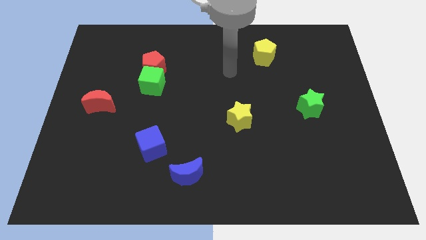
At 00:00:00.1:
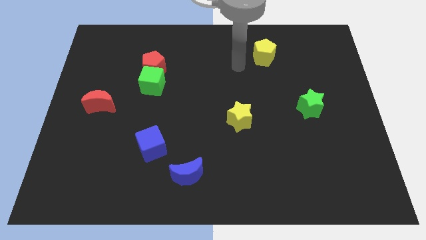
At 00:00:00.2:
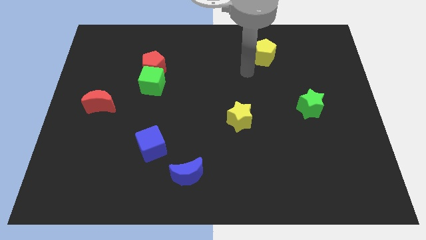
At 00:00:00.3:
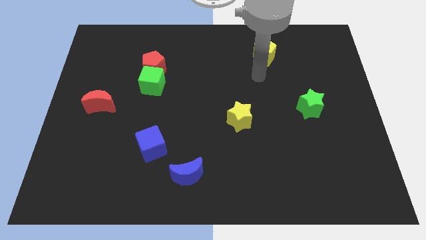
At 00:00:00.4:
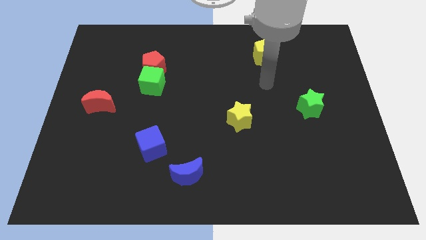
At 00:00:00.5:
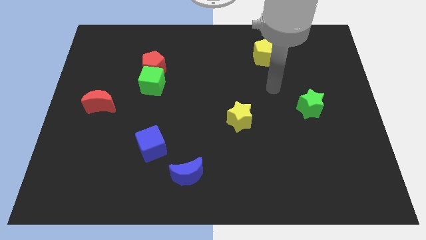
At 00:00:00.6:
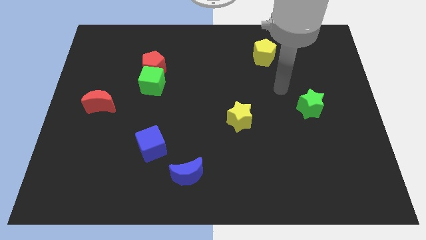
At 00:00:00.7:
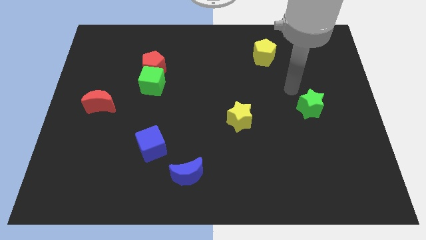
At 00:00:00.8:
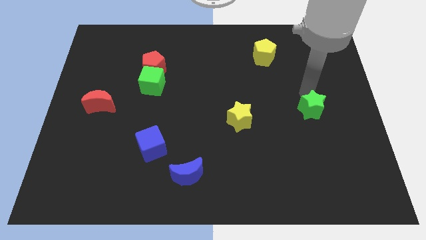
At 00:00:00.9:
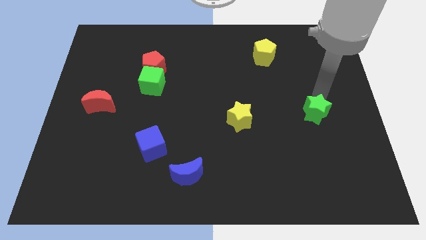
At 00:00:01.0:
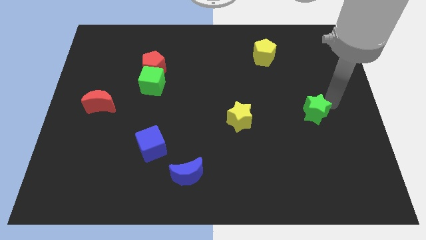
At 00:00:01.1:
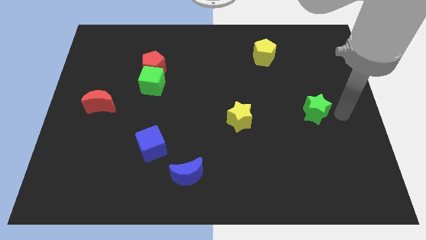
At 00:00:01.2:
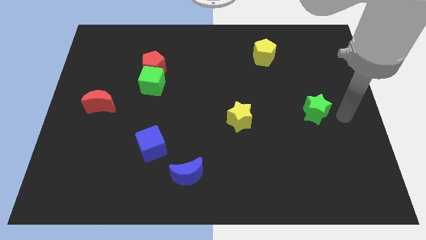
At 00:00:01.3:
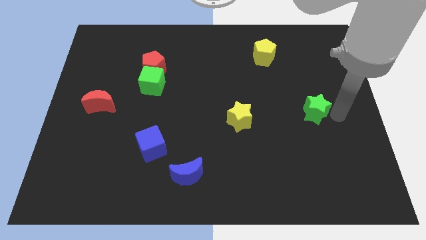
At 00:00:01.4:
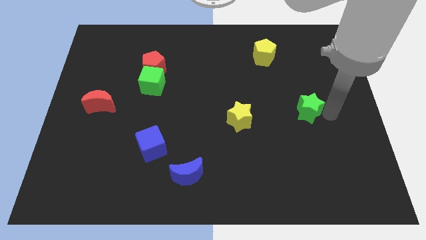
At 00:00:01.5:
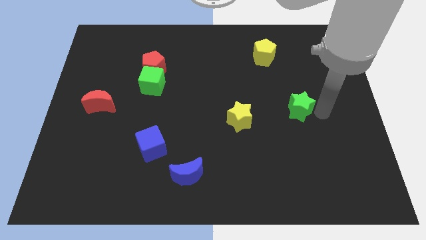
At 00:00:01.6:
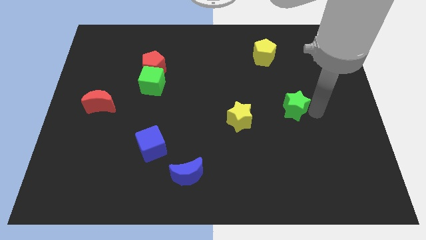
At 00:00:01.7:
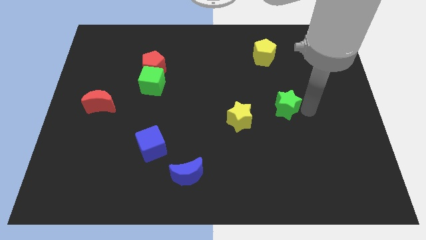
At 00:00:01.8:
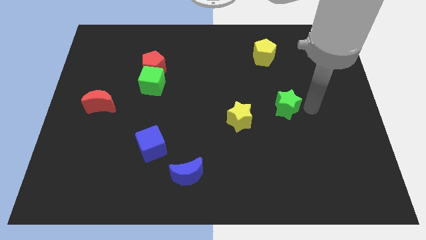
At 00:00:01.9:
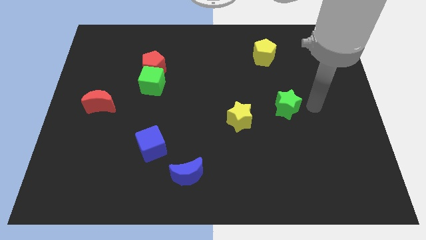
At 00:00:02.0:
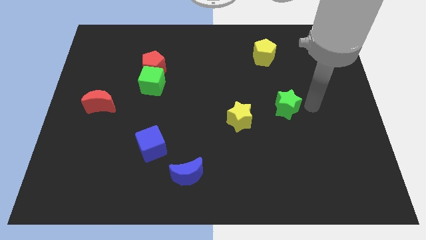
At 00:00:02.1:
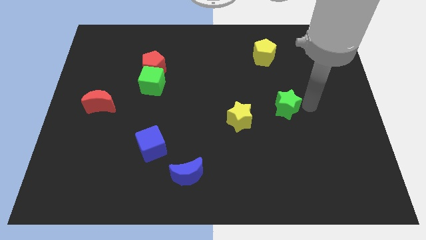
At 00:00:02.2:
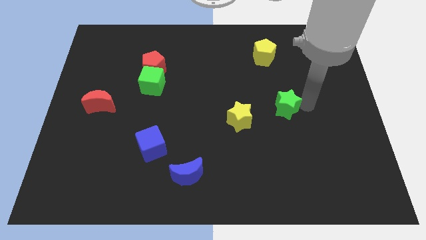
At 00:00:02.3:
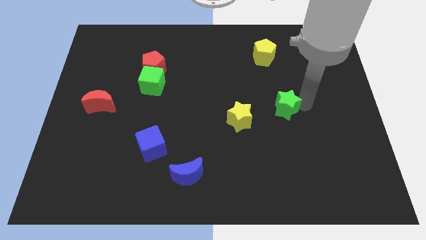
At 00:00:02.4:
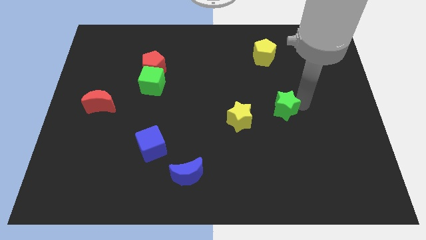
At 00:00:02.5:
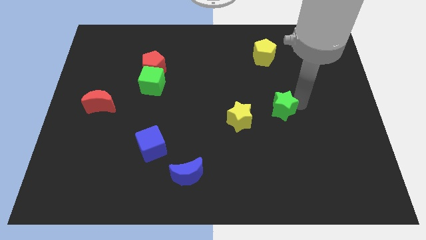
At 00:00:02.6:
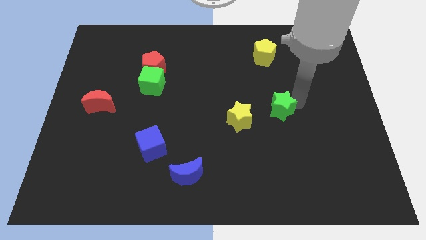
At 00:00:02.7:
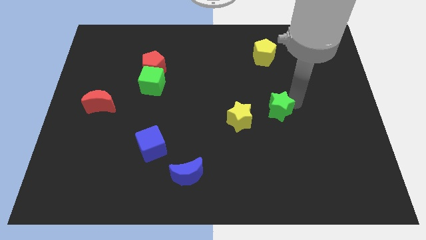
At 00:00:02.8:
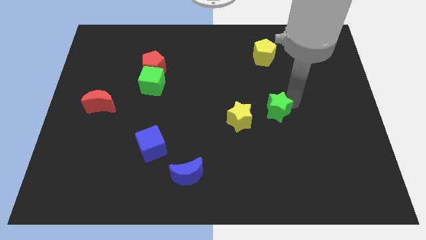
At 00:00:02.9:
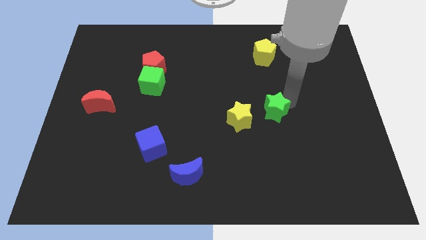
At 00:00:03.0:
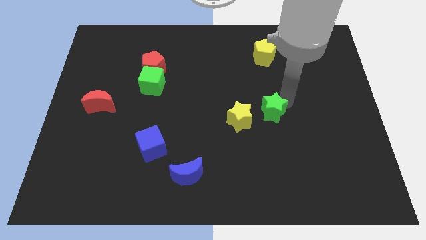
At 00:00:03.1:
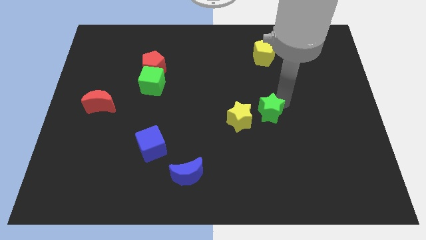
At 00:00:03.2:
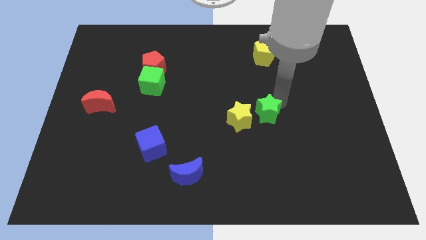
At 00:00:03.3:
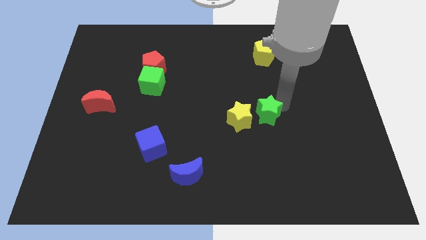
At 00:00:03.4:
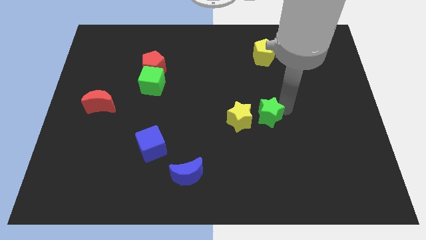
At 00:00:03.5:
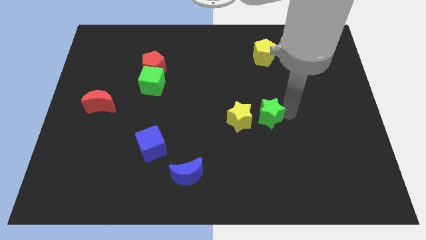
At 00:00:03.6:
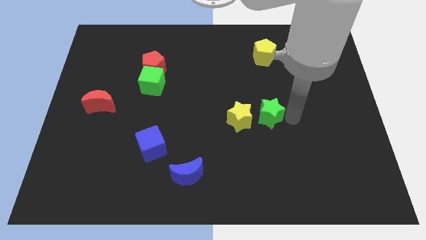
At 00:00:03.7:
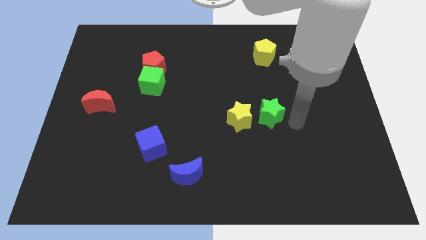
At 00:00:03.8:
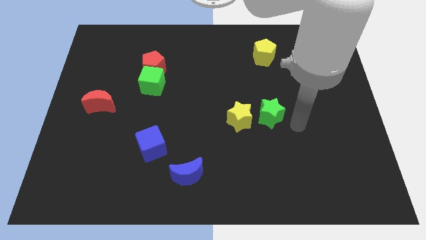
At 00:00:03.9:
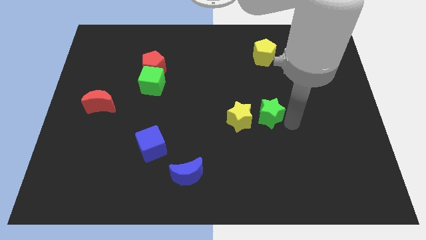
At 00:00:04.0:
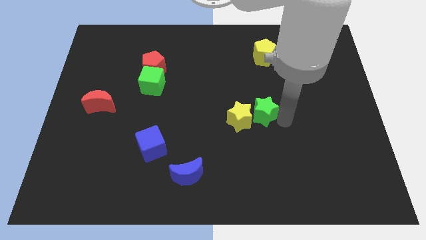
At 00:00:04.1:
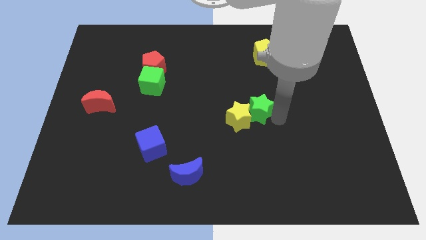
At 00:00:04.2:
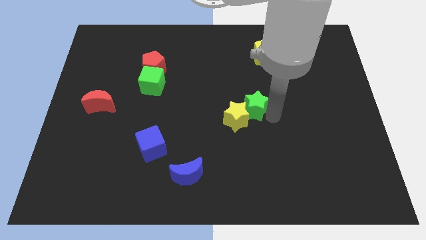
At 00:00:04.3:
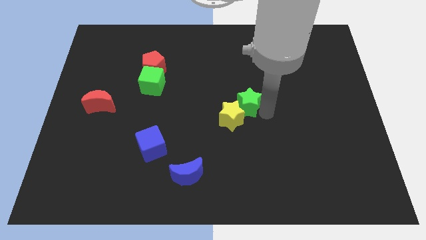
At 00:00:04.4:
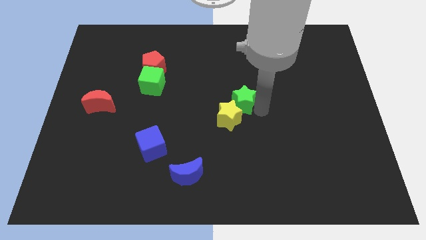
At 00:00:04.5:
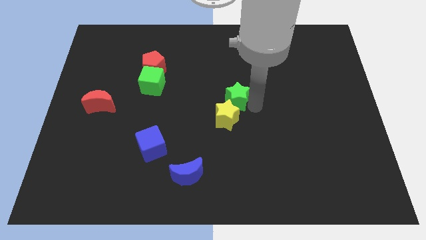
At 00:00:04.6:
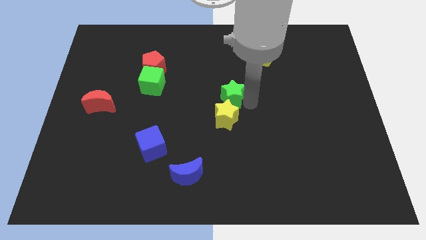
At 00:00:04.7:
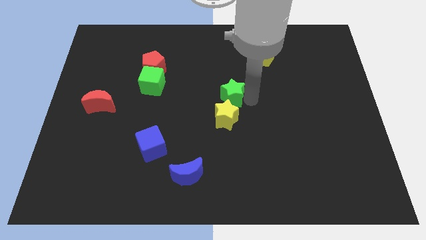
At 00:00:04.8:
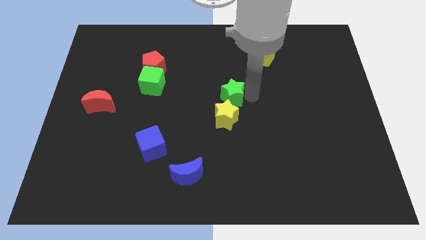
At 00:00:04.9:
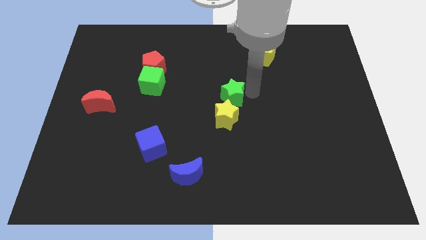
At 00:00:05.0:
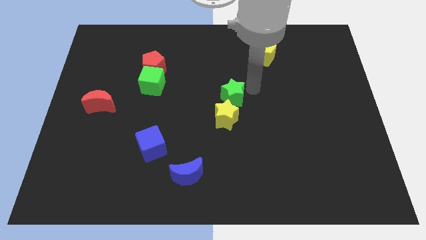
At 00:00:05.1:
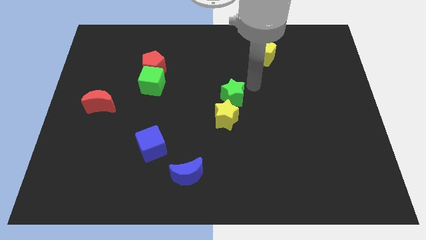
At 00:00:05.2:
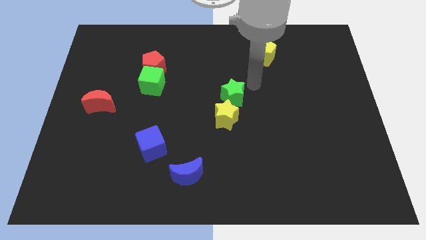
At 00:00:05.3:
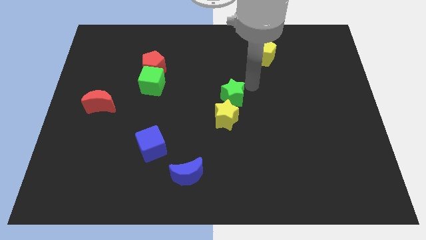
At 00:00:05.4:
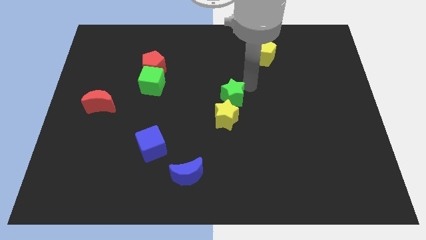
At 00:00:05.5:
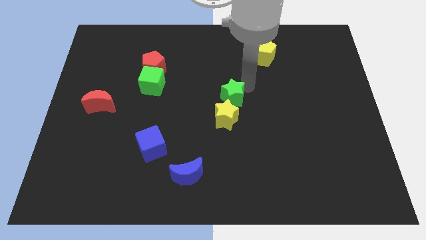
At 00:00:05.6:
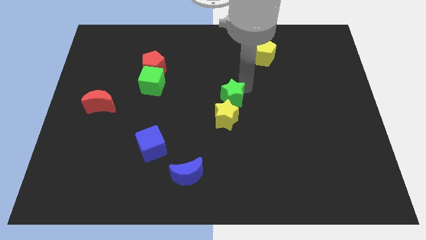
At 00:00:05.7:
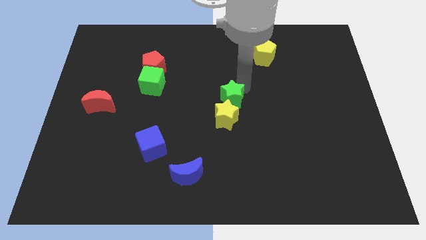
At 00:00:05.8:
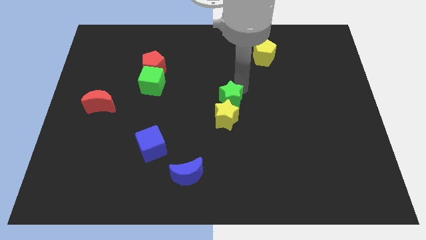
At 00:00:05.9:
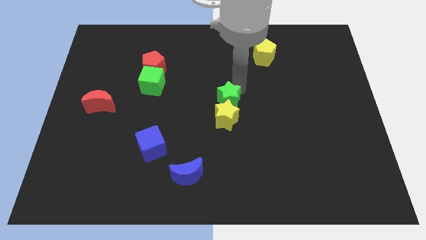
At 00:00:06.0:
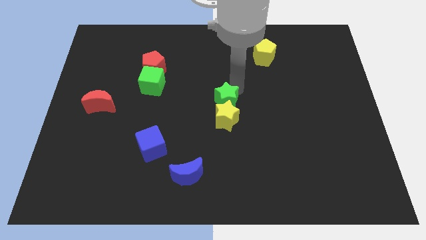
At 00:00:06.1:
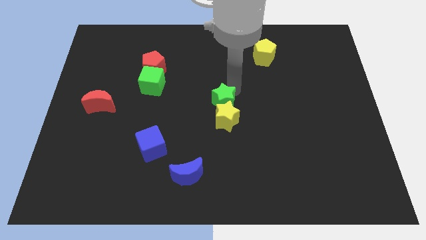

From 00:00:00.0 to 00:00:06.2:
slide the green star to the left

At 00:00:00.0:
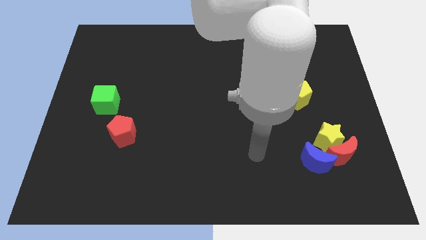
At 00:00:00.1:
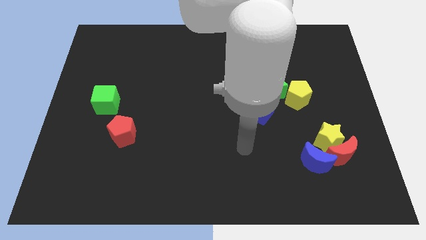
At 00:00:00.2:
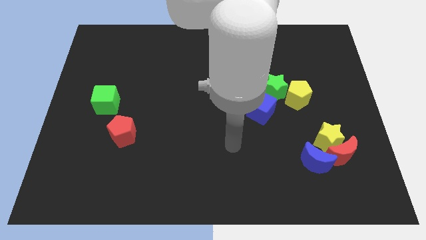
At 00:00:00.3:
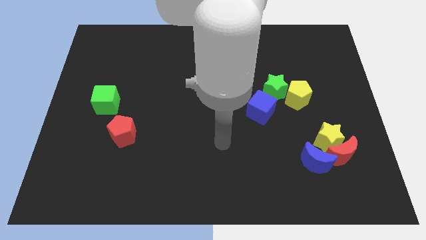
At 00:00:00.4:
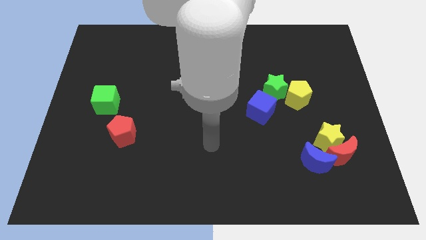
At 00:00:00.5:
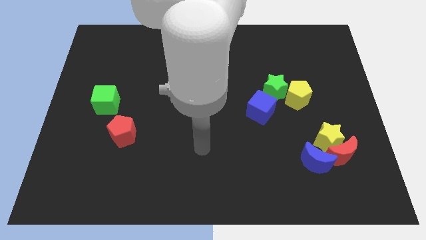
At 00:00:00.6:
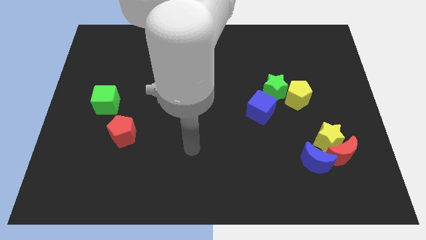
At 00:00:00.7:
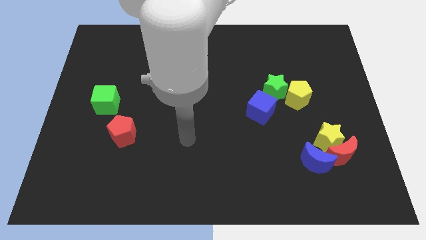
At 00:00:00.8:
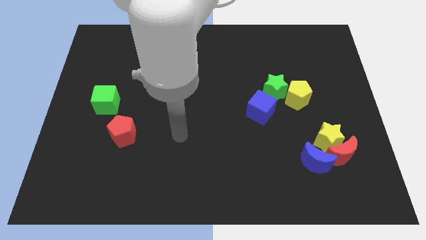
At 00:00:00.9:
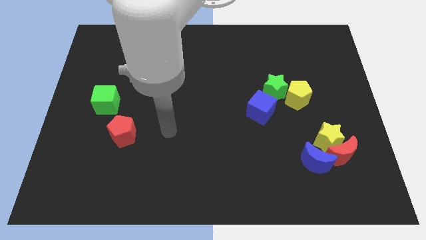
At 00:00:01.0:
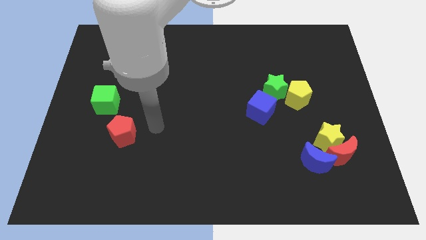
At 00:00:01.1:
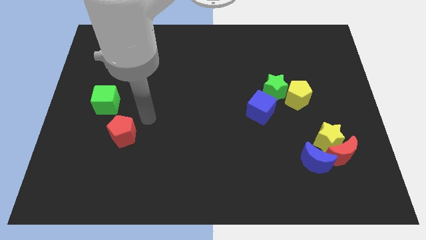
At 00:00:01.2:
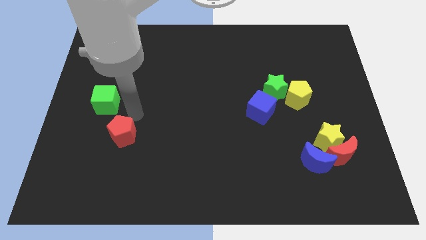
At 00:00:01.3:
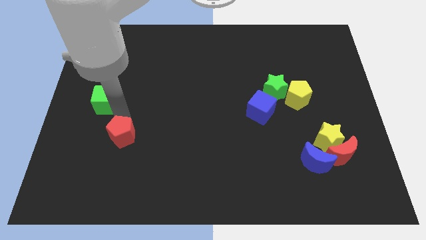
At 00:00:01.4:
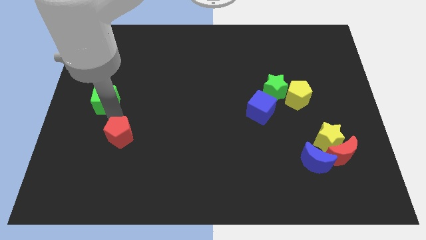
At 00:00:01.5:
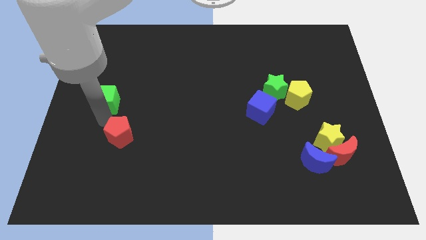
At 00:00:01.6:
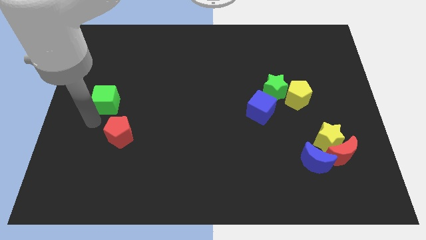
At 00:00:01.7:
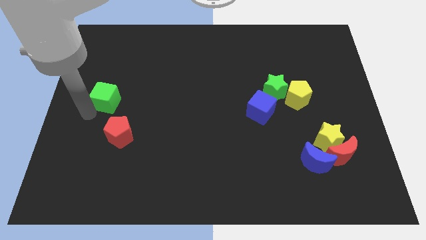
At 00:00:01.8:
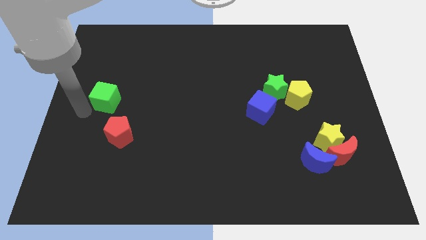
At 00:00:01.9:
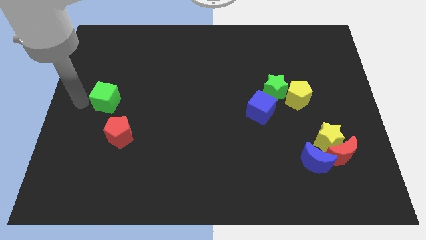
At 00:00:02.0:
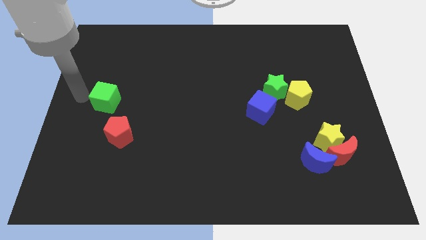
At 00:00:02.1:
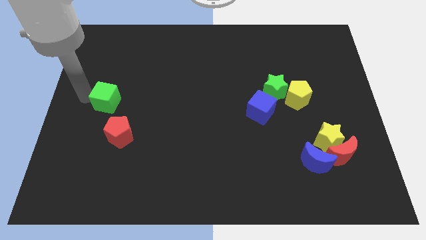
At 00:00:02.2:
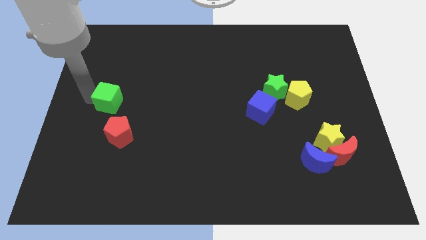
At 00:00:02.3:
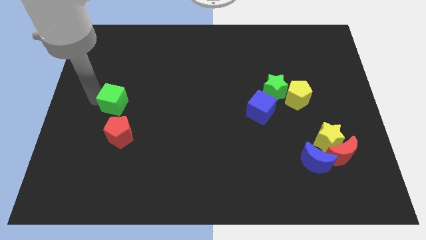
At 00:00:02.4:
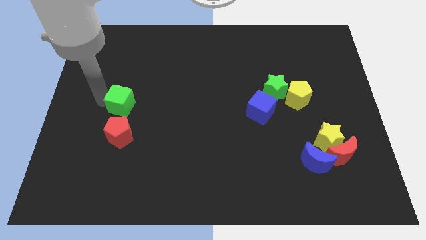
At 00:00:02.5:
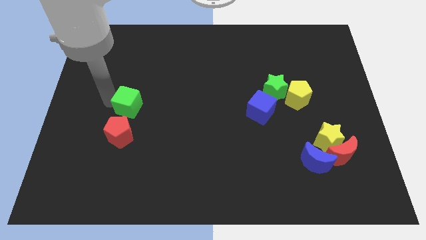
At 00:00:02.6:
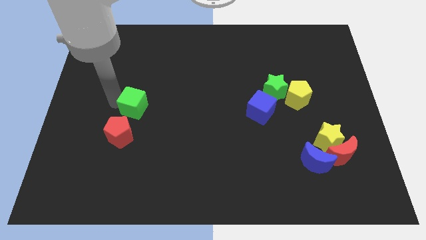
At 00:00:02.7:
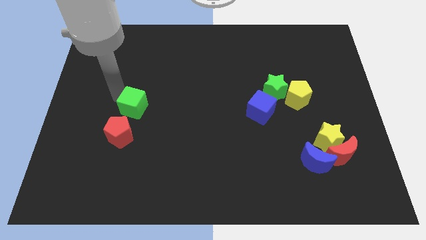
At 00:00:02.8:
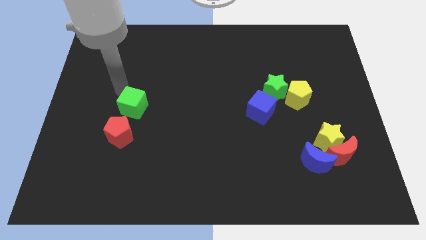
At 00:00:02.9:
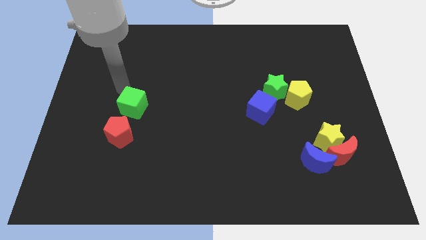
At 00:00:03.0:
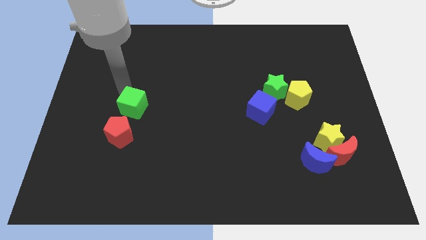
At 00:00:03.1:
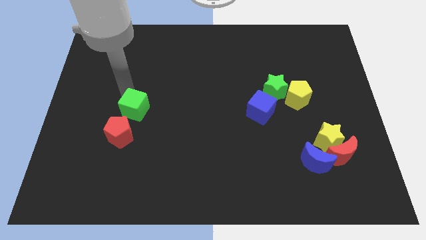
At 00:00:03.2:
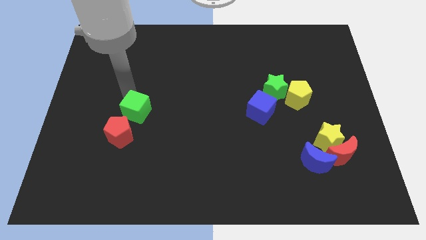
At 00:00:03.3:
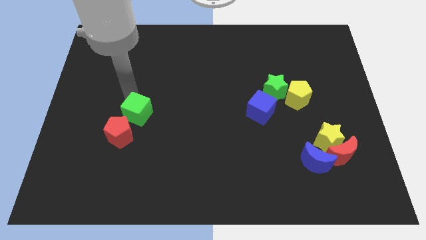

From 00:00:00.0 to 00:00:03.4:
slightly push the green cube down and right
